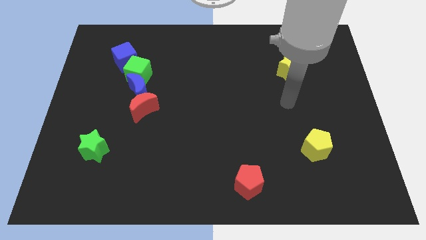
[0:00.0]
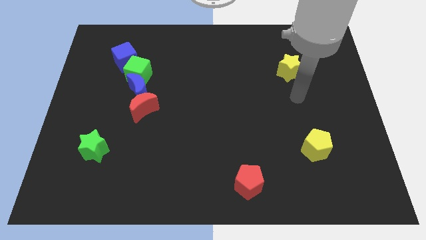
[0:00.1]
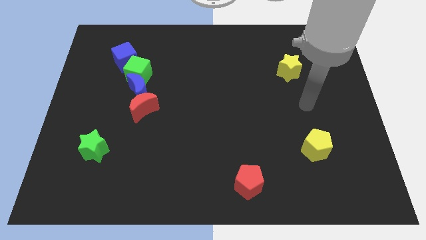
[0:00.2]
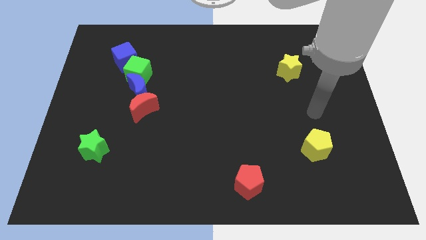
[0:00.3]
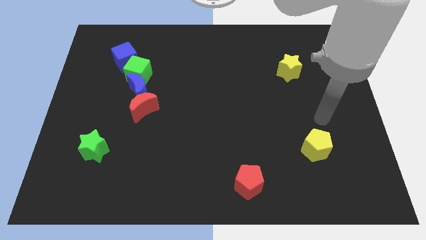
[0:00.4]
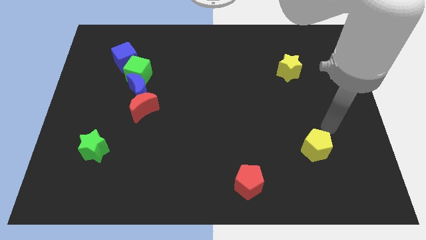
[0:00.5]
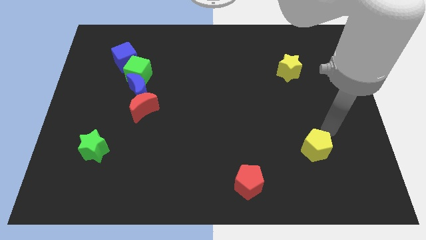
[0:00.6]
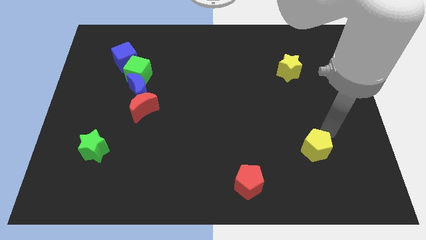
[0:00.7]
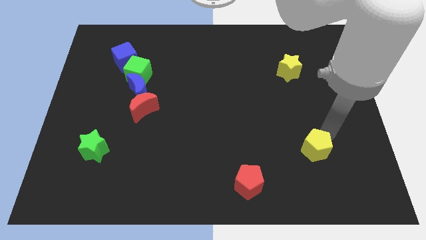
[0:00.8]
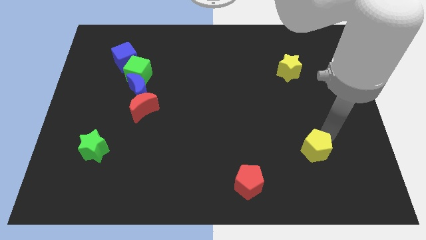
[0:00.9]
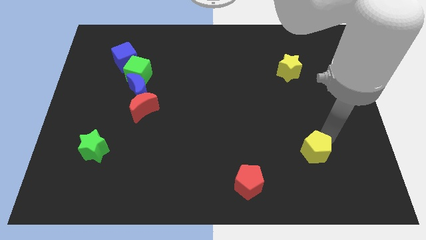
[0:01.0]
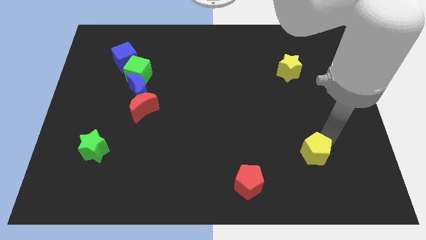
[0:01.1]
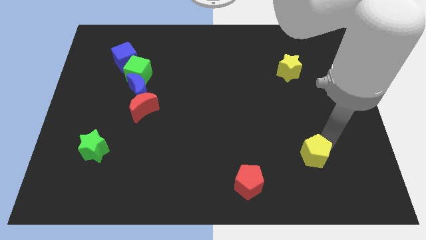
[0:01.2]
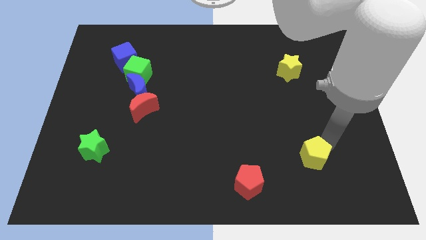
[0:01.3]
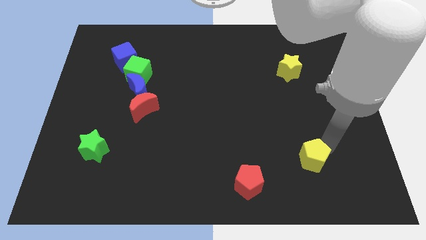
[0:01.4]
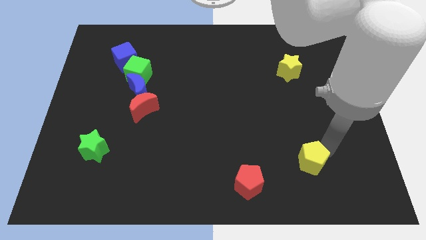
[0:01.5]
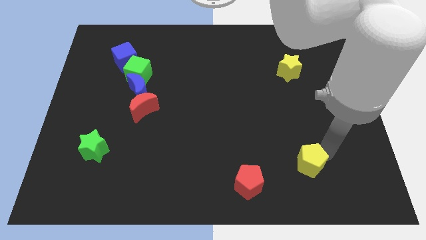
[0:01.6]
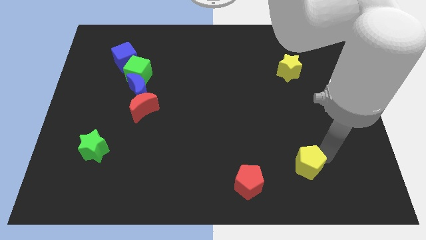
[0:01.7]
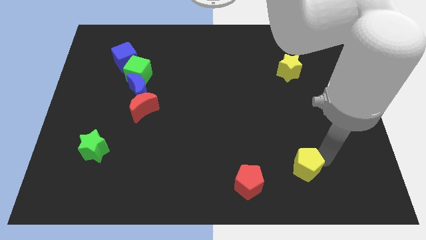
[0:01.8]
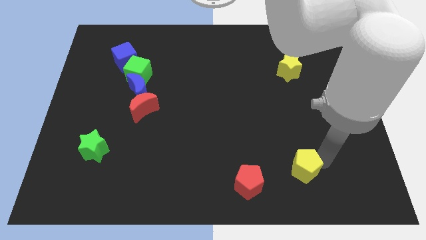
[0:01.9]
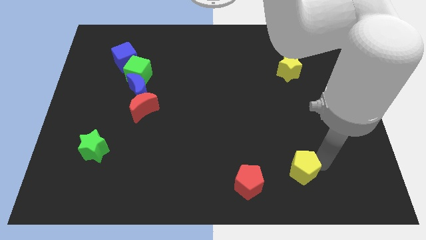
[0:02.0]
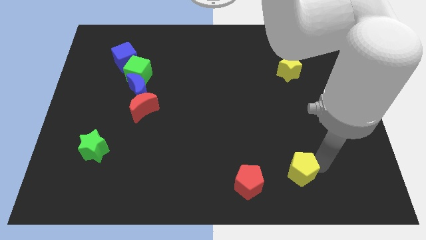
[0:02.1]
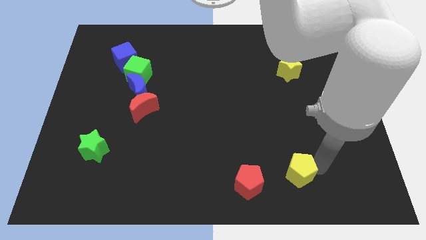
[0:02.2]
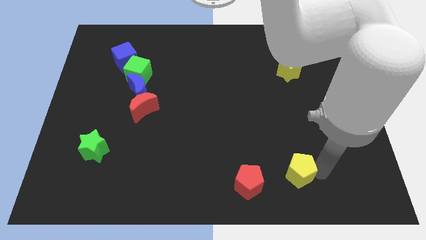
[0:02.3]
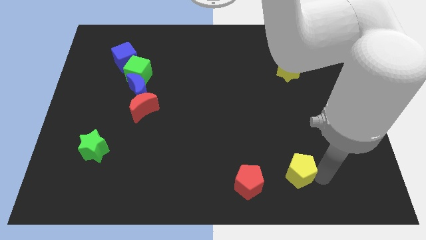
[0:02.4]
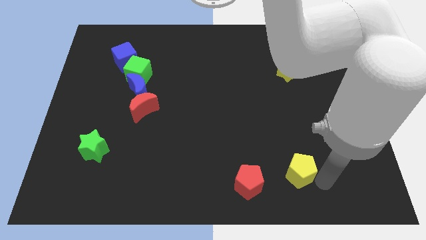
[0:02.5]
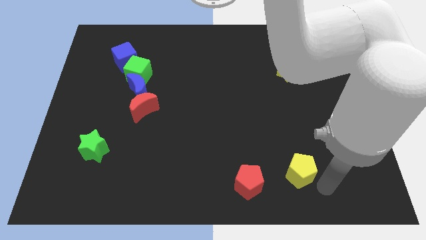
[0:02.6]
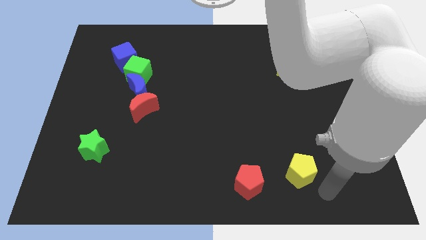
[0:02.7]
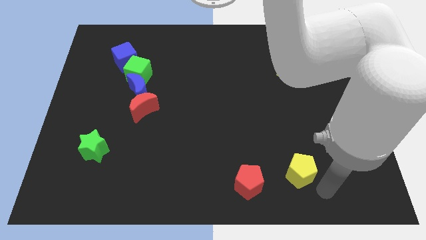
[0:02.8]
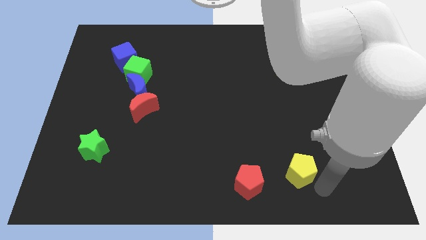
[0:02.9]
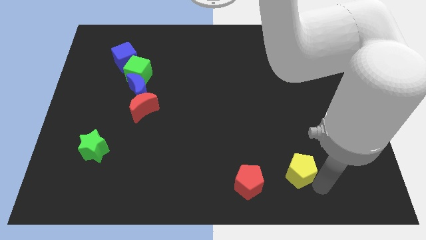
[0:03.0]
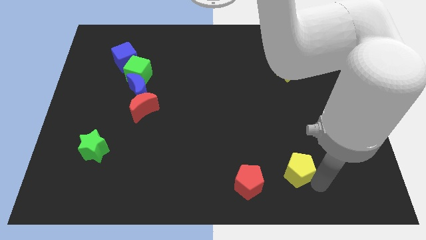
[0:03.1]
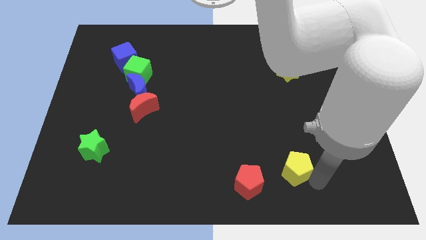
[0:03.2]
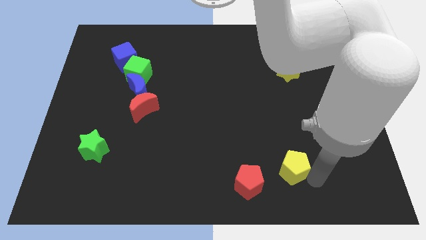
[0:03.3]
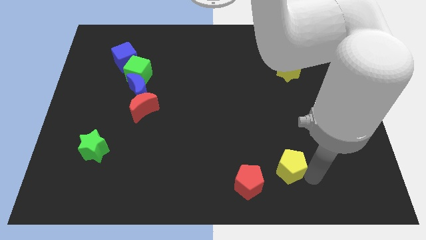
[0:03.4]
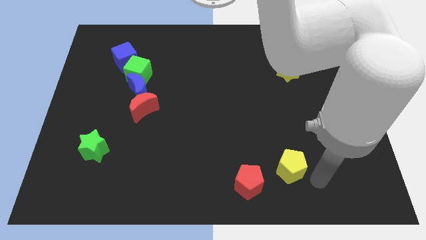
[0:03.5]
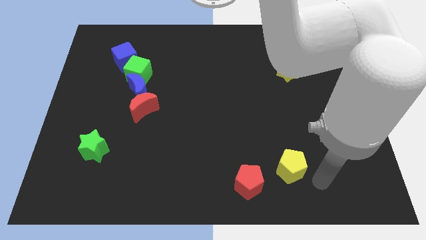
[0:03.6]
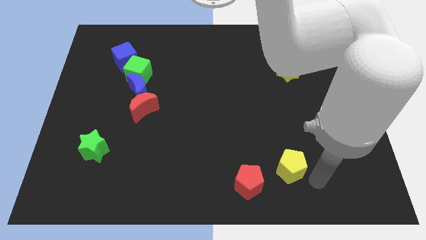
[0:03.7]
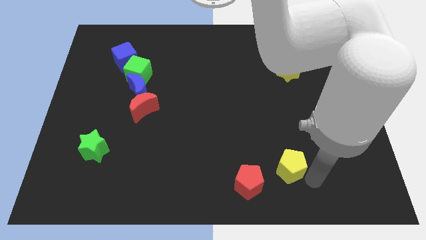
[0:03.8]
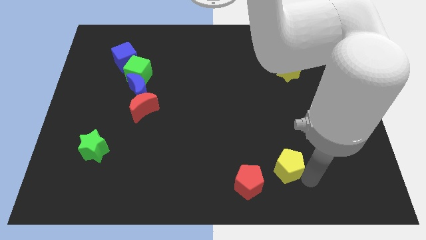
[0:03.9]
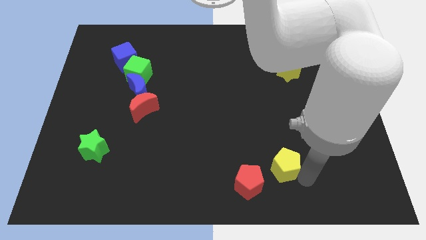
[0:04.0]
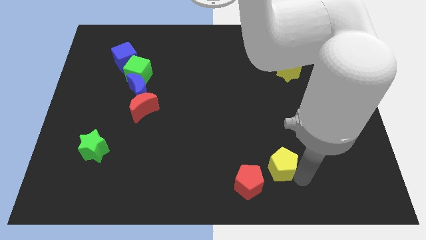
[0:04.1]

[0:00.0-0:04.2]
move the yellow pentagon somewhat left

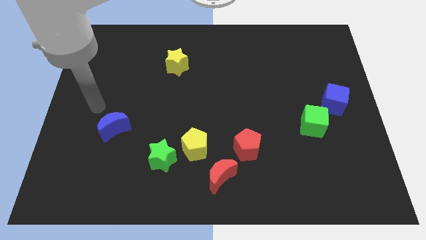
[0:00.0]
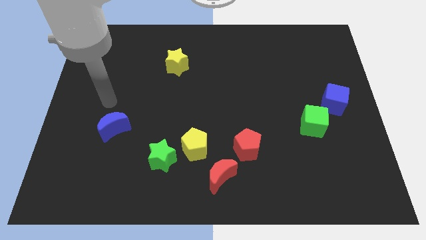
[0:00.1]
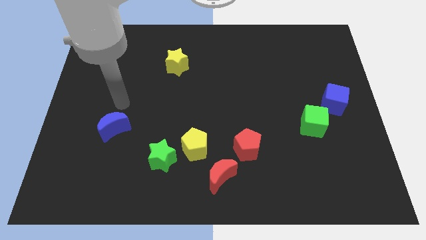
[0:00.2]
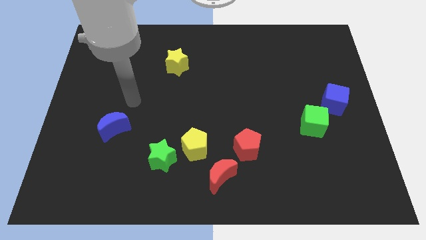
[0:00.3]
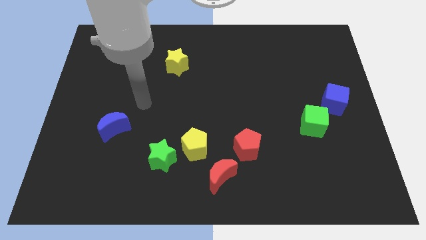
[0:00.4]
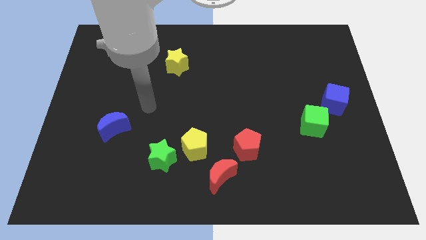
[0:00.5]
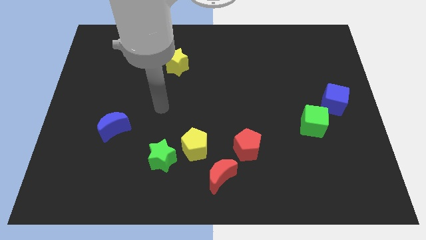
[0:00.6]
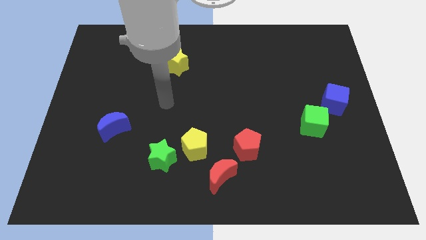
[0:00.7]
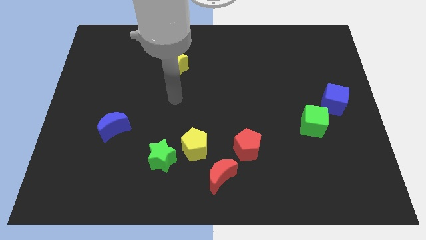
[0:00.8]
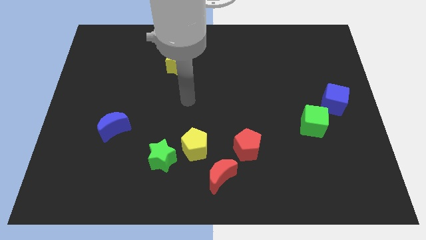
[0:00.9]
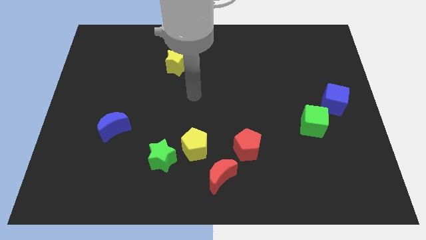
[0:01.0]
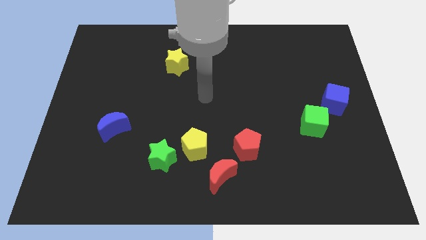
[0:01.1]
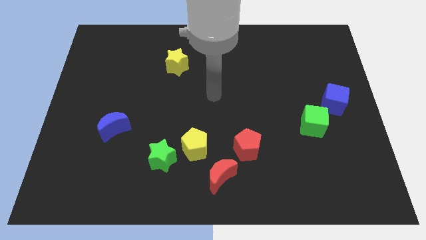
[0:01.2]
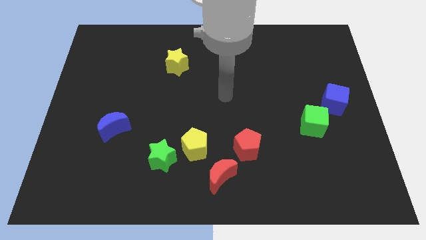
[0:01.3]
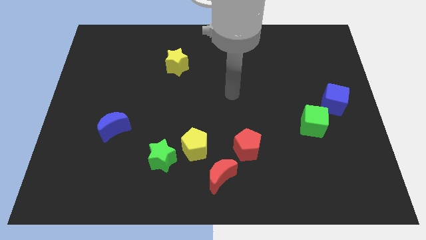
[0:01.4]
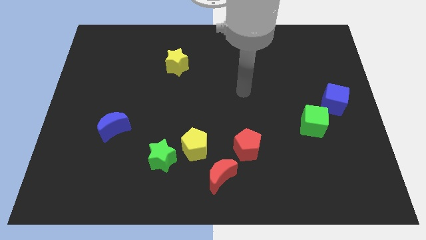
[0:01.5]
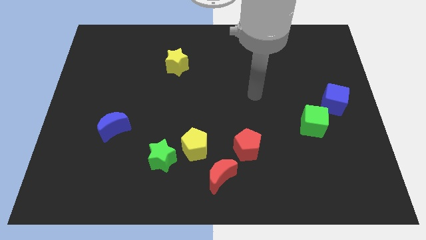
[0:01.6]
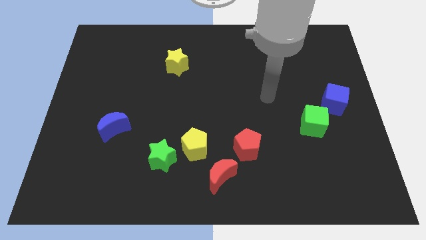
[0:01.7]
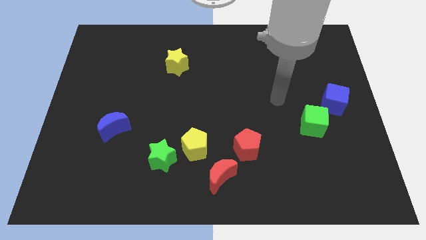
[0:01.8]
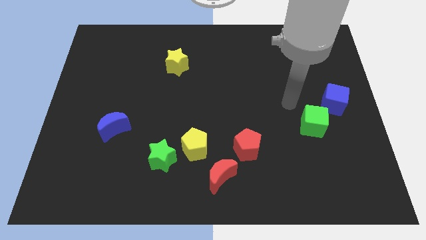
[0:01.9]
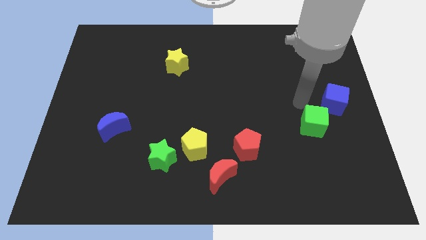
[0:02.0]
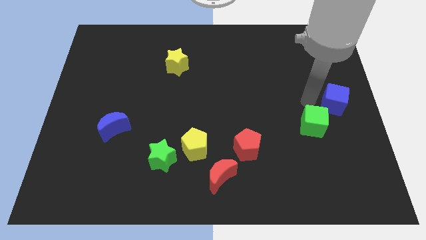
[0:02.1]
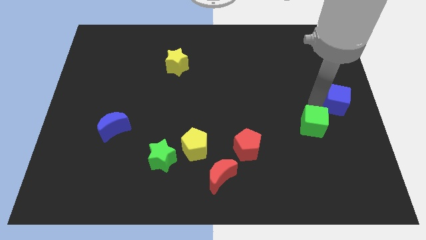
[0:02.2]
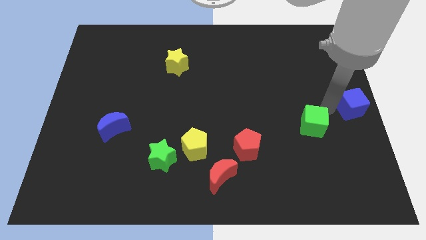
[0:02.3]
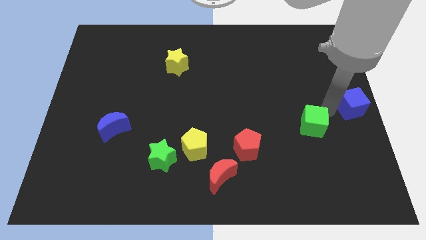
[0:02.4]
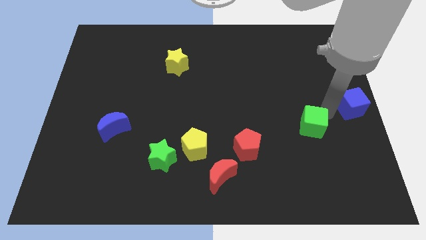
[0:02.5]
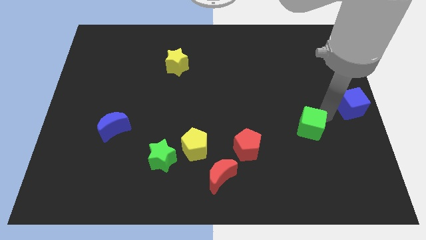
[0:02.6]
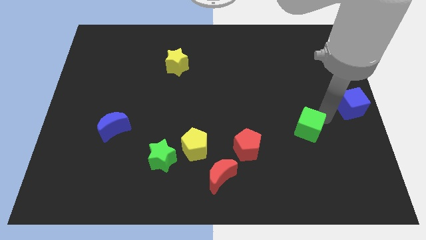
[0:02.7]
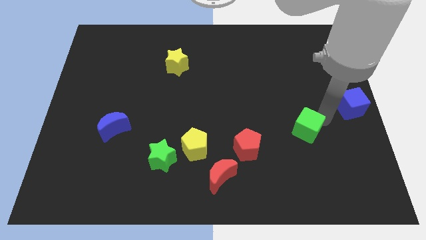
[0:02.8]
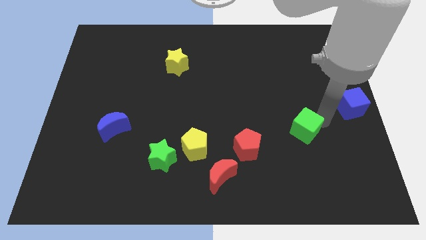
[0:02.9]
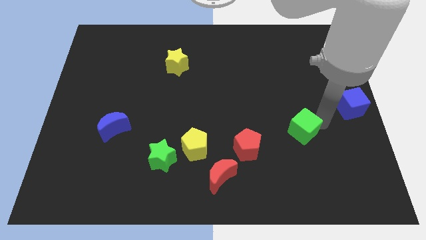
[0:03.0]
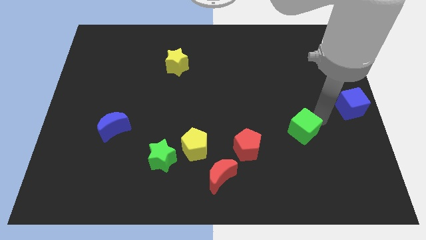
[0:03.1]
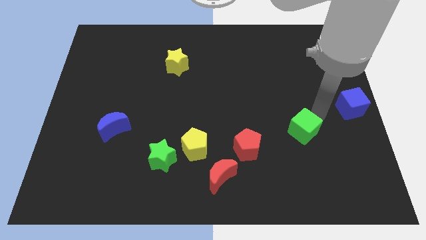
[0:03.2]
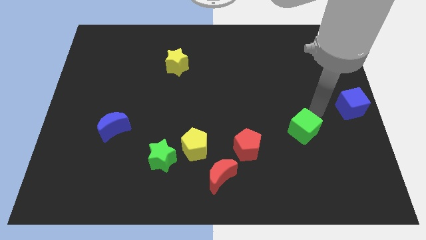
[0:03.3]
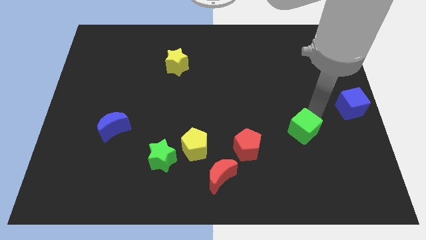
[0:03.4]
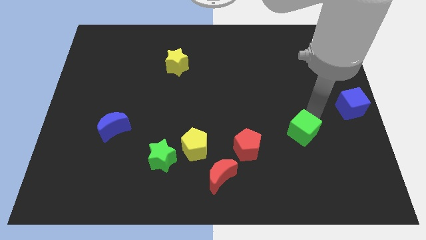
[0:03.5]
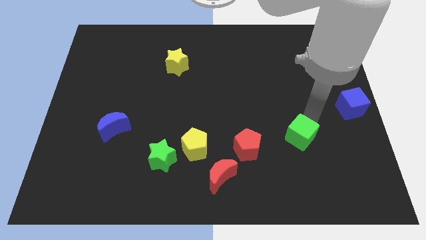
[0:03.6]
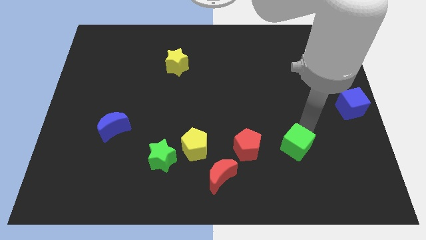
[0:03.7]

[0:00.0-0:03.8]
move the green cube a bit diagonally downwards and to the left
